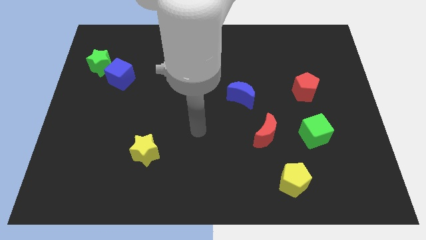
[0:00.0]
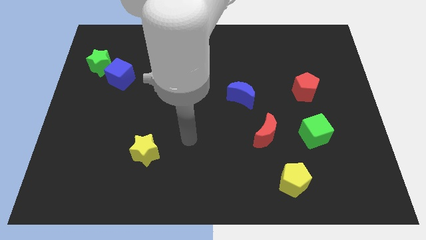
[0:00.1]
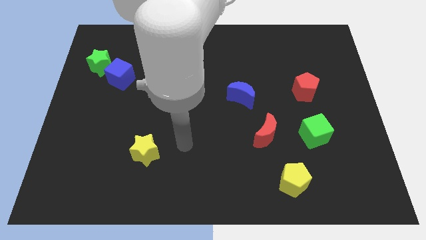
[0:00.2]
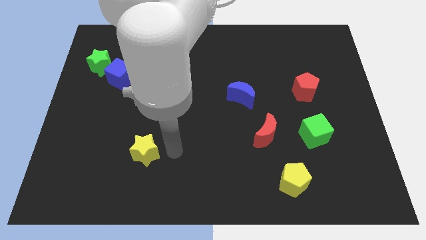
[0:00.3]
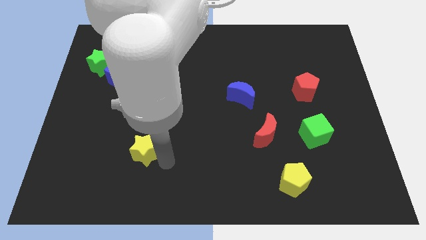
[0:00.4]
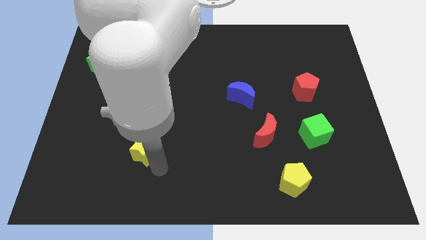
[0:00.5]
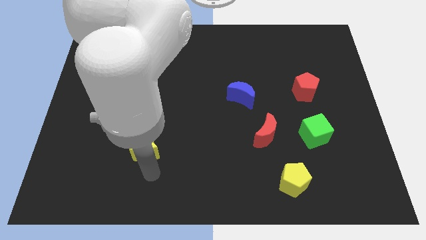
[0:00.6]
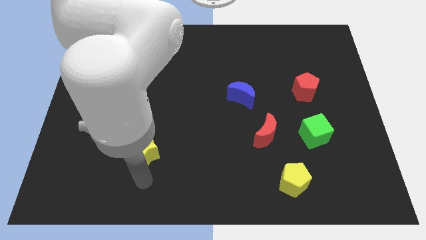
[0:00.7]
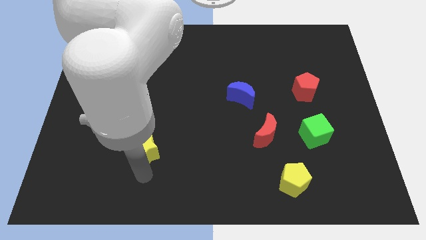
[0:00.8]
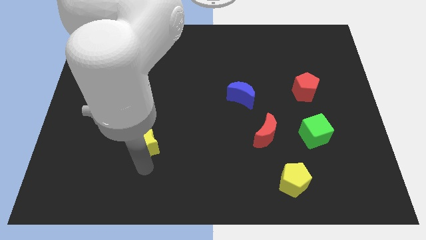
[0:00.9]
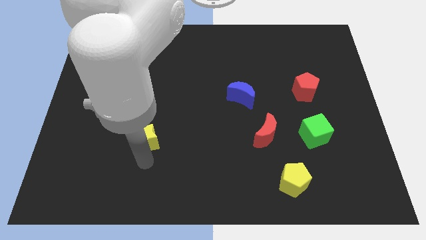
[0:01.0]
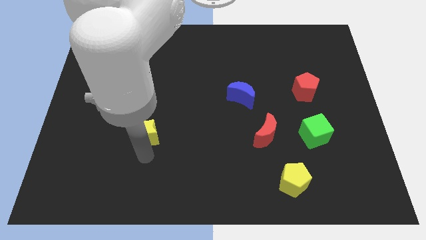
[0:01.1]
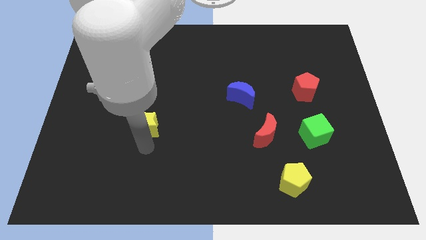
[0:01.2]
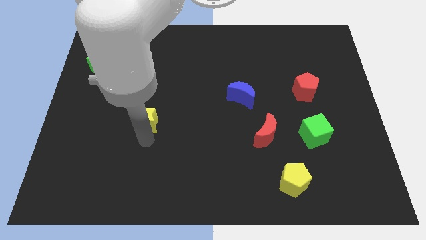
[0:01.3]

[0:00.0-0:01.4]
slightly slide the yellow star upwards

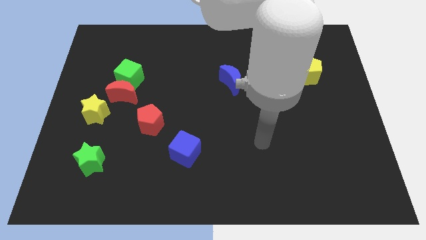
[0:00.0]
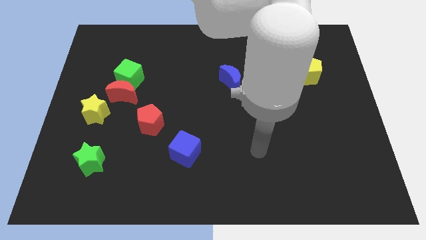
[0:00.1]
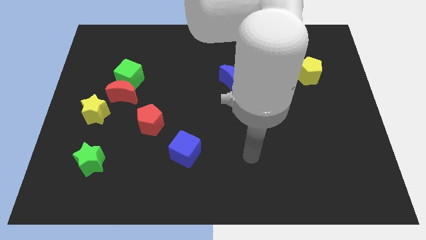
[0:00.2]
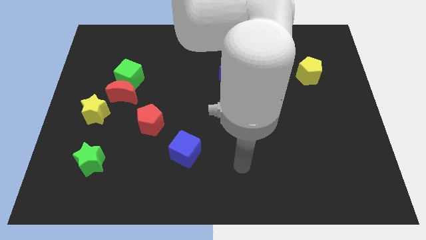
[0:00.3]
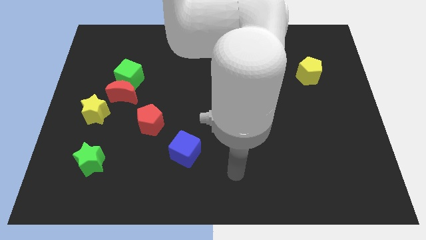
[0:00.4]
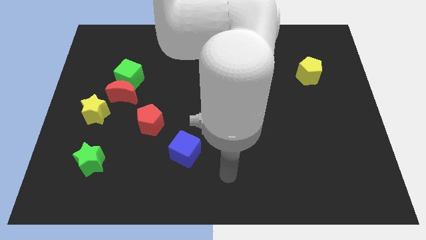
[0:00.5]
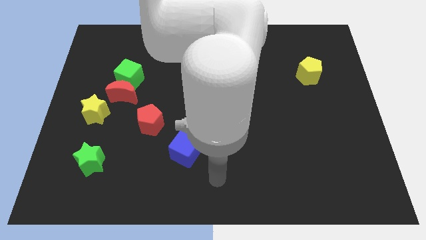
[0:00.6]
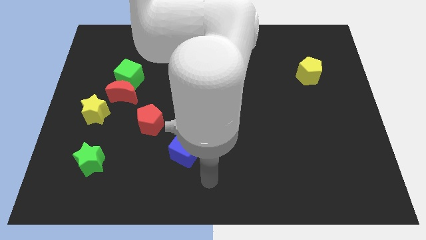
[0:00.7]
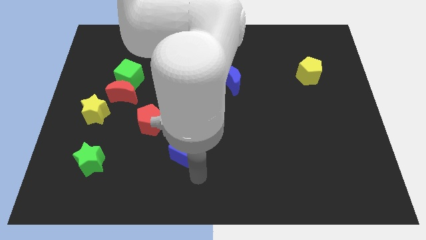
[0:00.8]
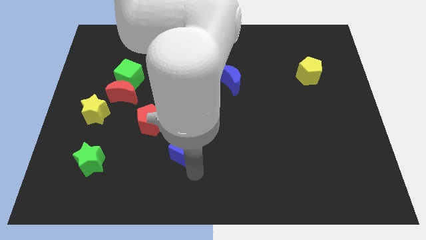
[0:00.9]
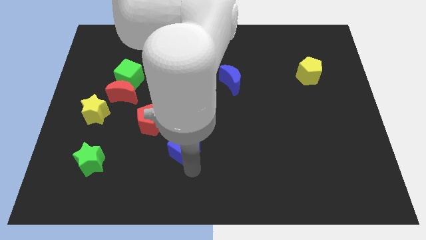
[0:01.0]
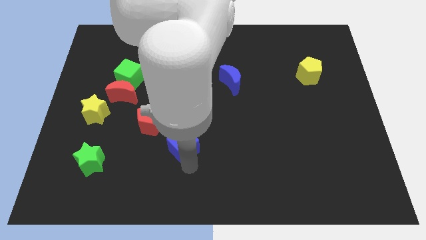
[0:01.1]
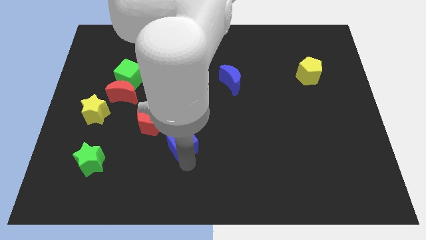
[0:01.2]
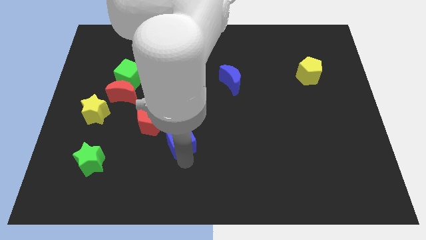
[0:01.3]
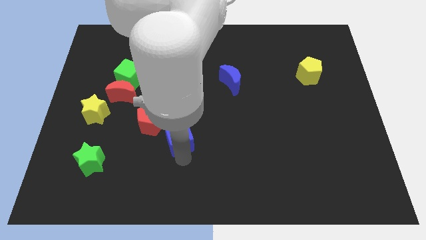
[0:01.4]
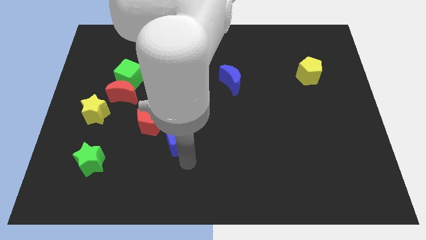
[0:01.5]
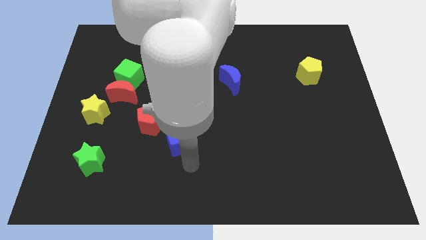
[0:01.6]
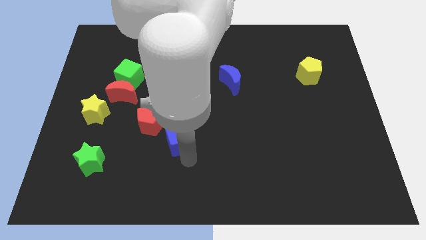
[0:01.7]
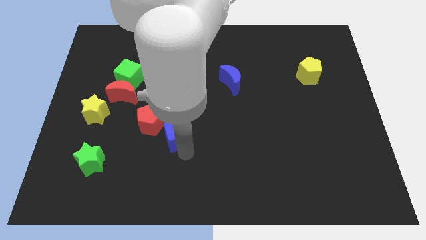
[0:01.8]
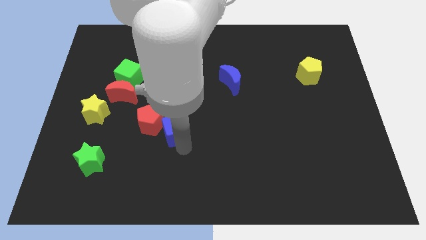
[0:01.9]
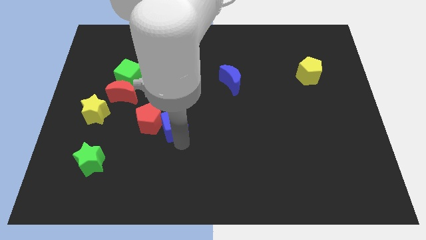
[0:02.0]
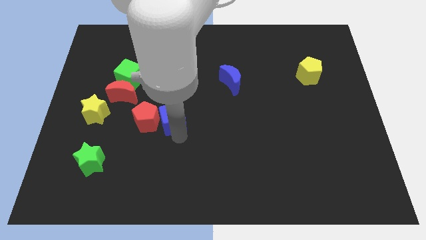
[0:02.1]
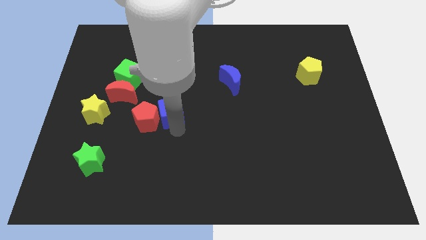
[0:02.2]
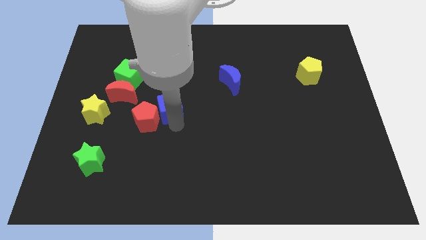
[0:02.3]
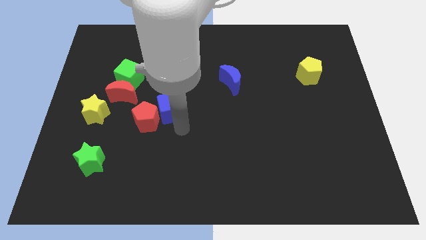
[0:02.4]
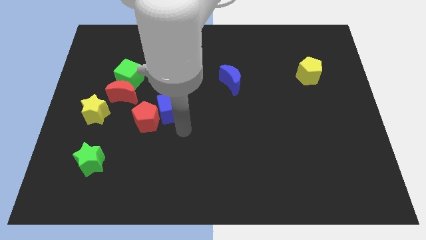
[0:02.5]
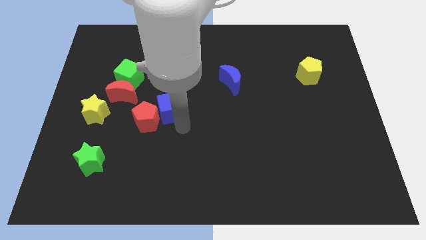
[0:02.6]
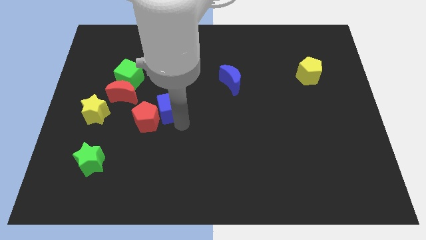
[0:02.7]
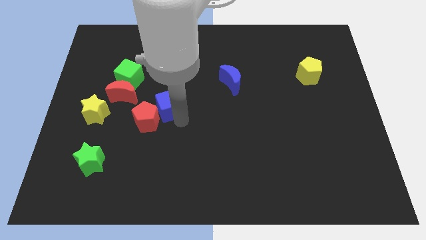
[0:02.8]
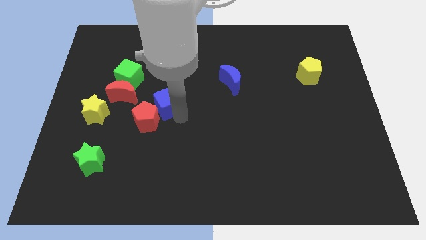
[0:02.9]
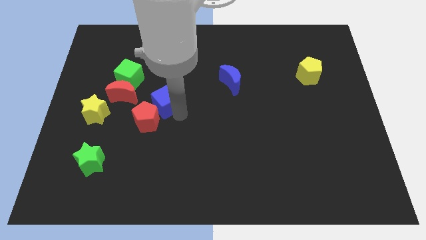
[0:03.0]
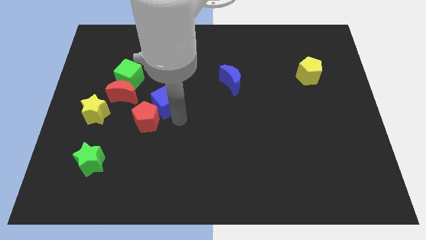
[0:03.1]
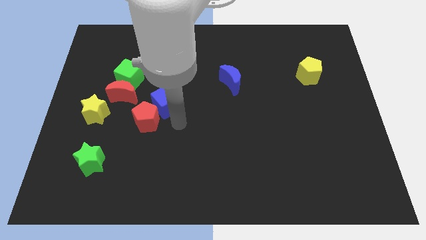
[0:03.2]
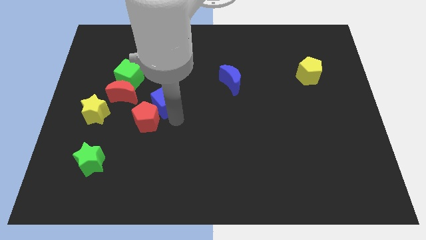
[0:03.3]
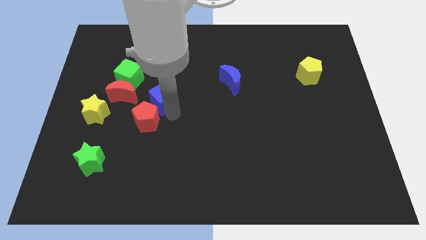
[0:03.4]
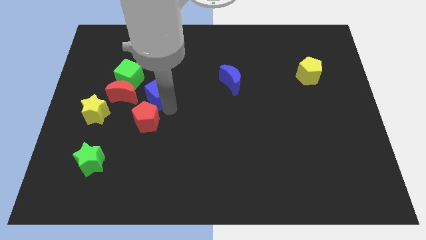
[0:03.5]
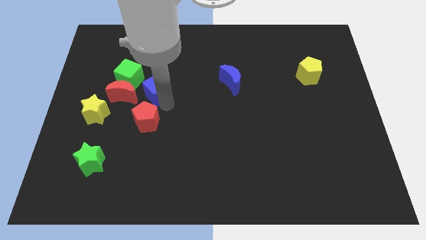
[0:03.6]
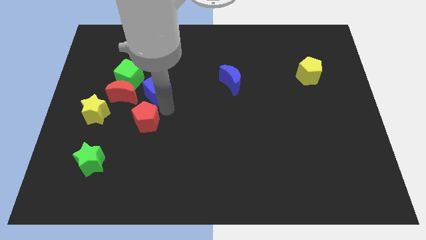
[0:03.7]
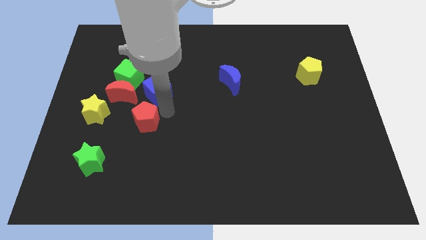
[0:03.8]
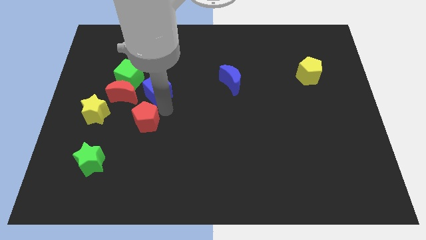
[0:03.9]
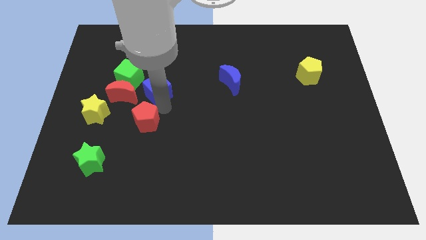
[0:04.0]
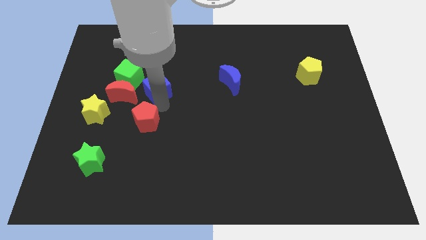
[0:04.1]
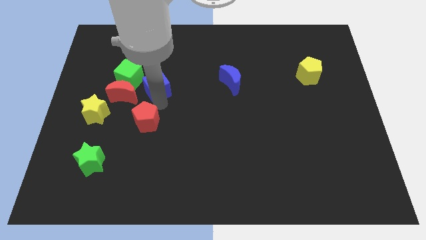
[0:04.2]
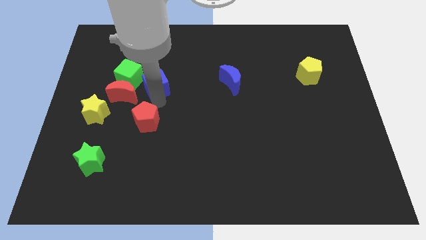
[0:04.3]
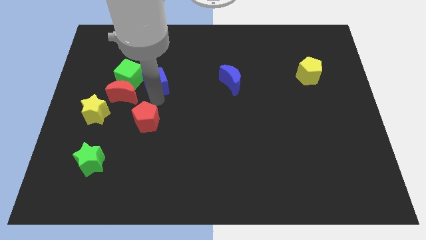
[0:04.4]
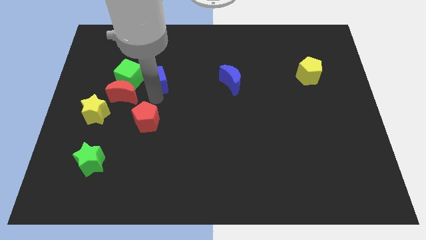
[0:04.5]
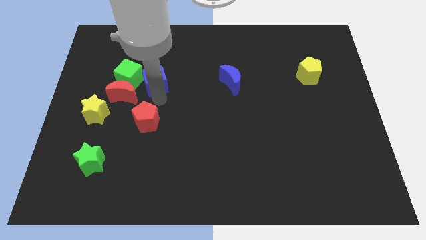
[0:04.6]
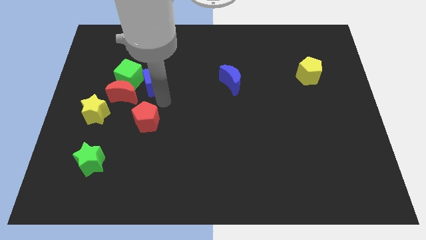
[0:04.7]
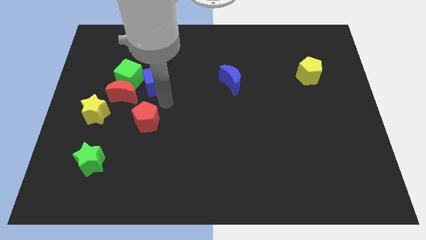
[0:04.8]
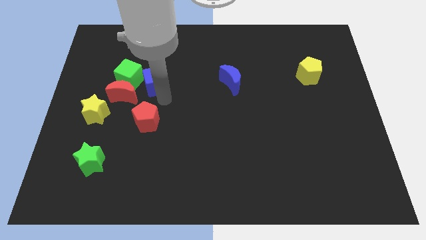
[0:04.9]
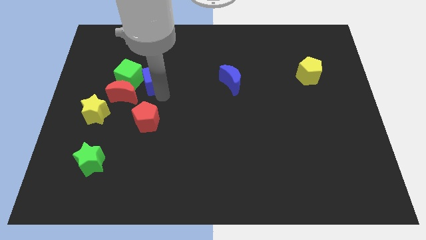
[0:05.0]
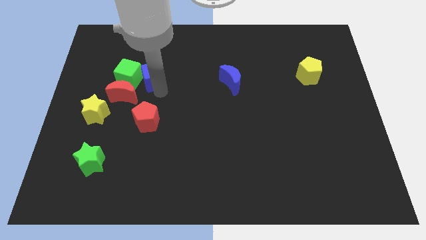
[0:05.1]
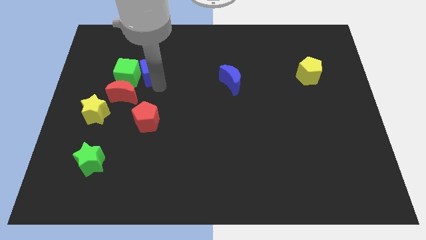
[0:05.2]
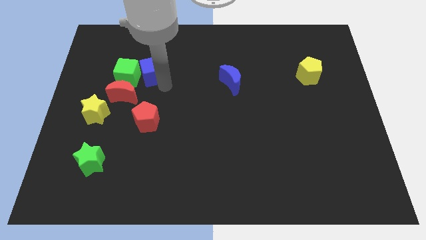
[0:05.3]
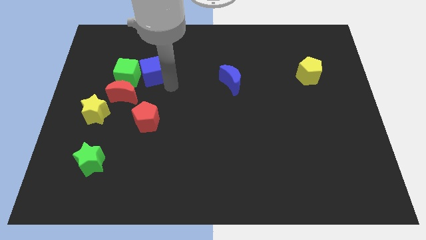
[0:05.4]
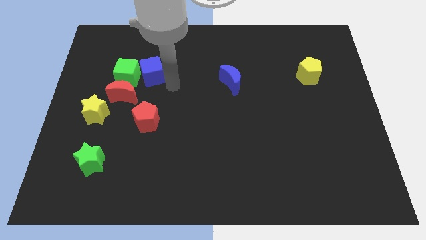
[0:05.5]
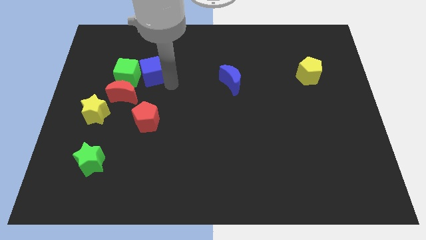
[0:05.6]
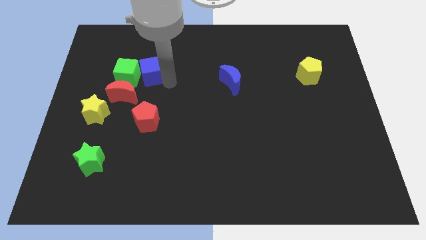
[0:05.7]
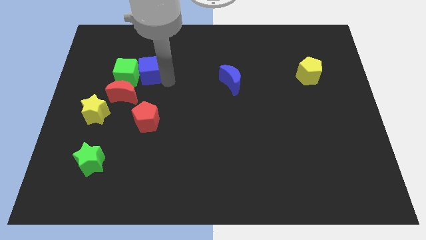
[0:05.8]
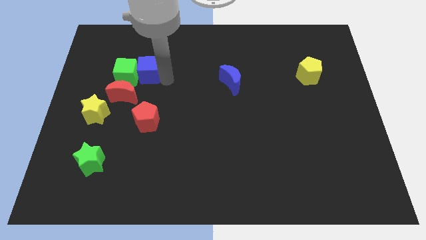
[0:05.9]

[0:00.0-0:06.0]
slide the blue cube up and to the left

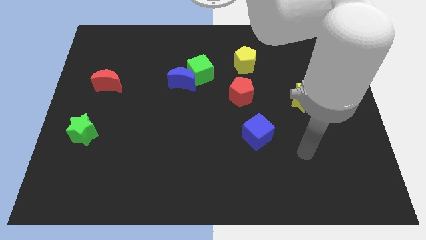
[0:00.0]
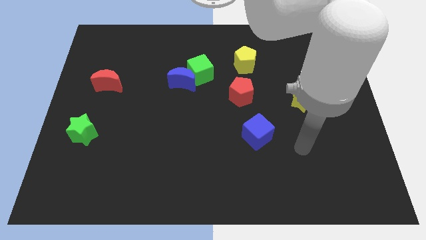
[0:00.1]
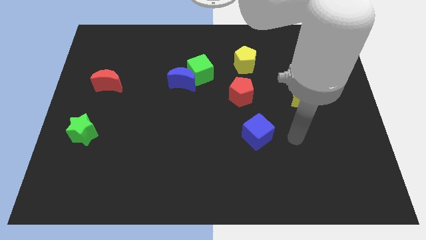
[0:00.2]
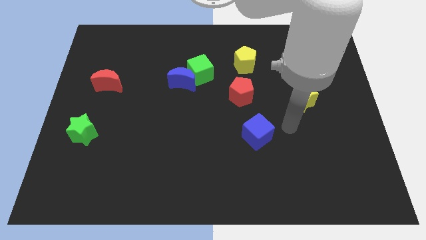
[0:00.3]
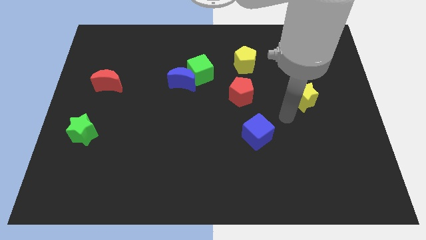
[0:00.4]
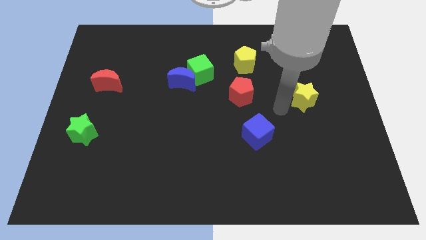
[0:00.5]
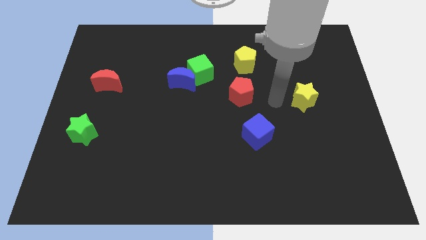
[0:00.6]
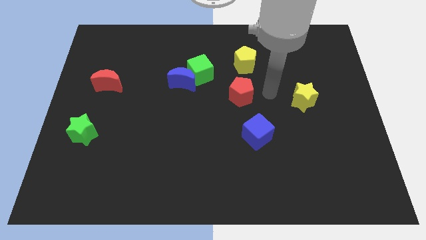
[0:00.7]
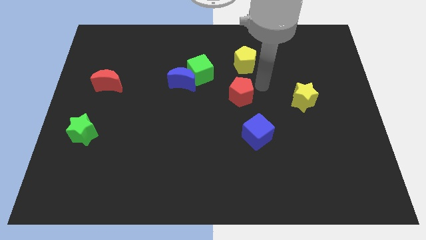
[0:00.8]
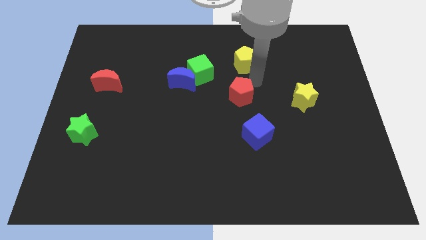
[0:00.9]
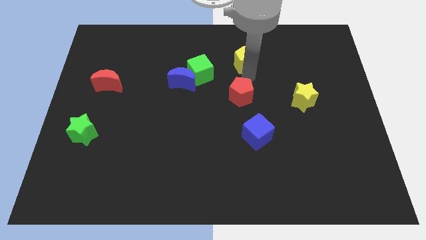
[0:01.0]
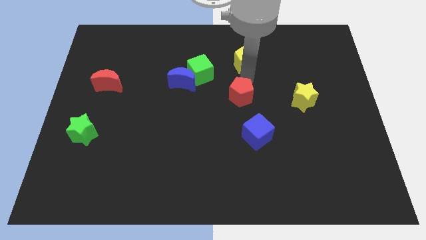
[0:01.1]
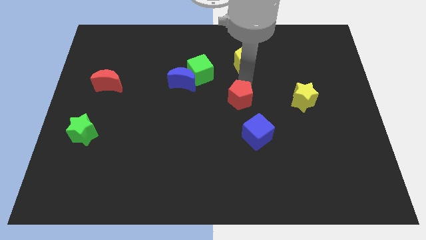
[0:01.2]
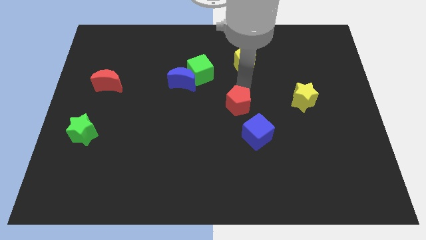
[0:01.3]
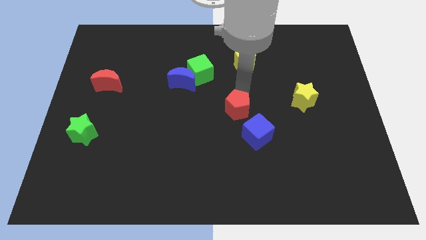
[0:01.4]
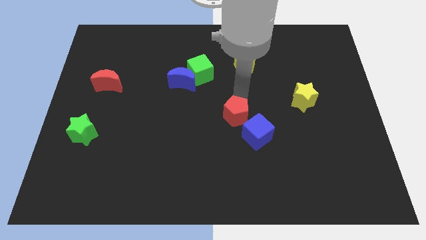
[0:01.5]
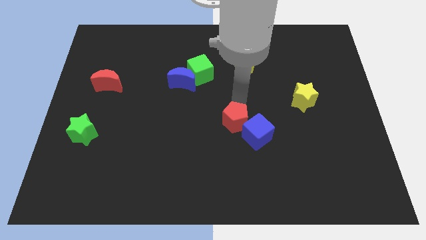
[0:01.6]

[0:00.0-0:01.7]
move the red pentagon down a bit
